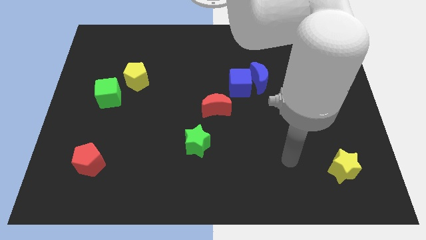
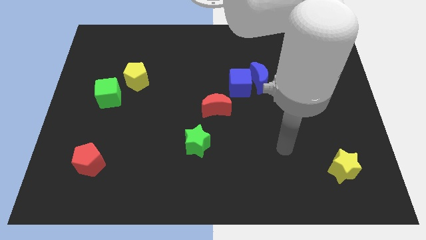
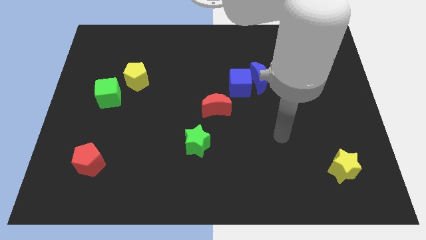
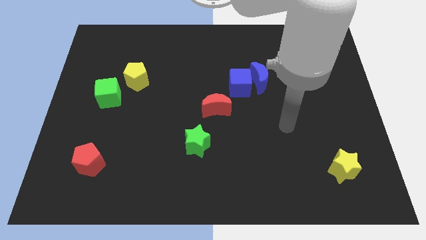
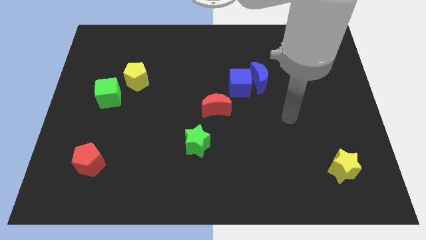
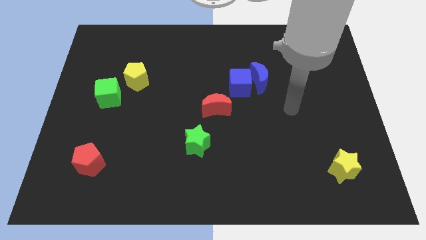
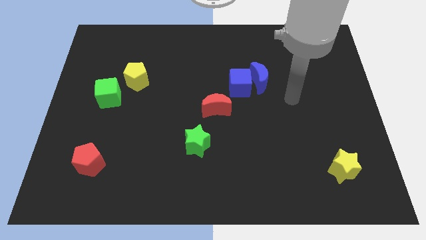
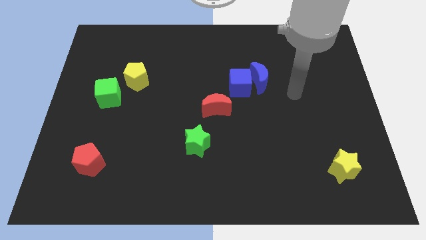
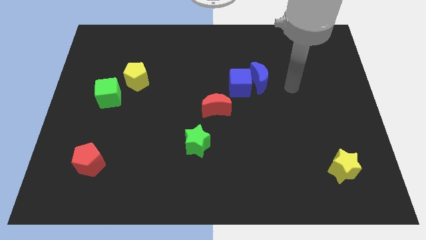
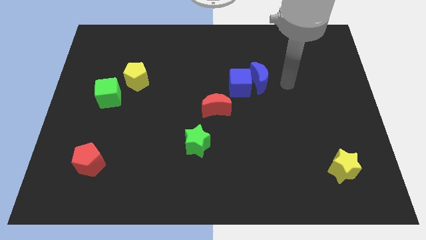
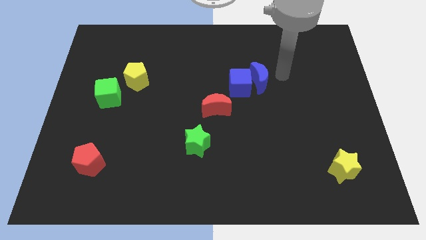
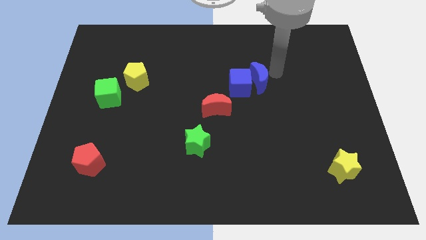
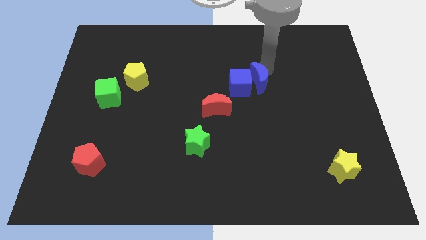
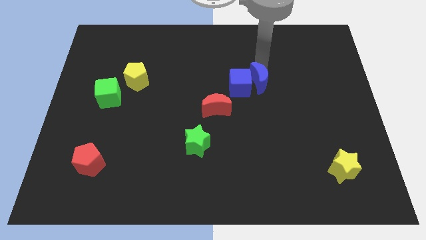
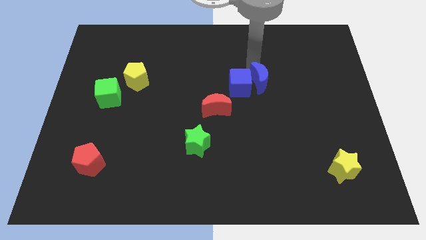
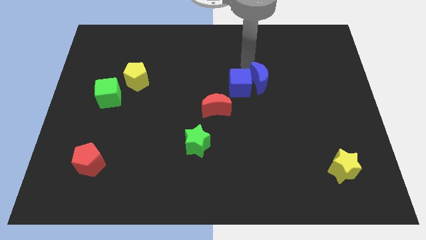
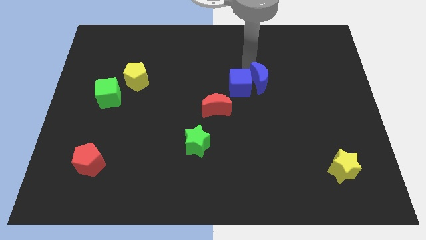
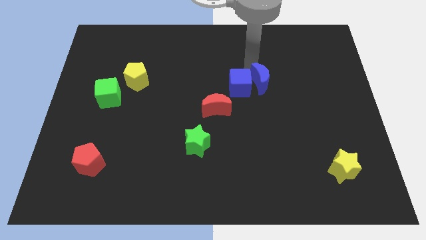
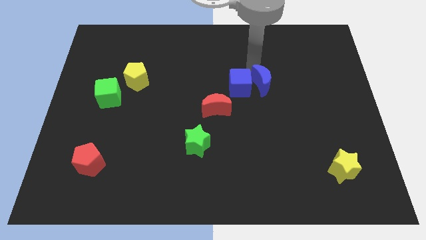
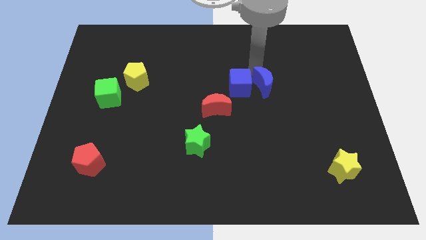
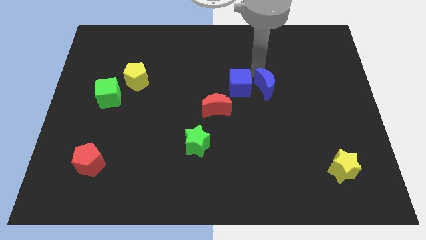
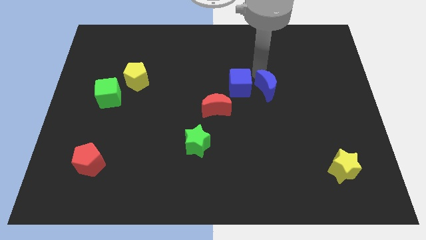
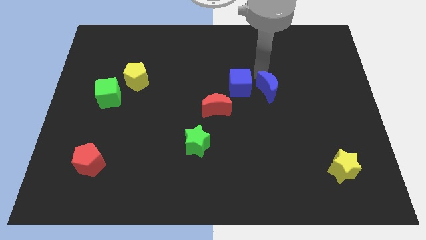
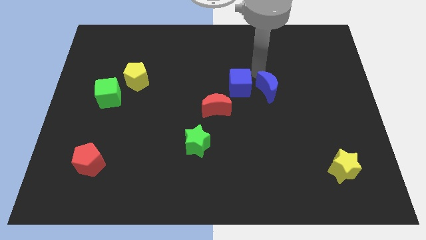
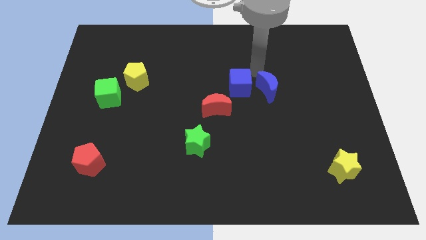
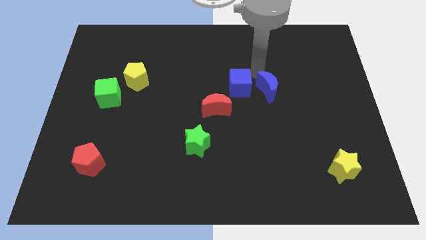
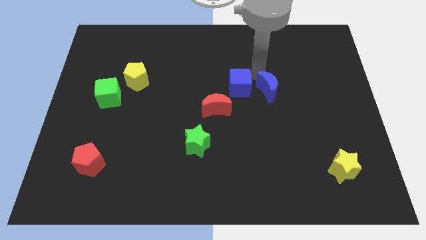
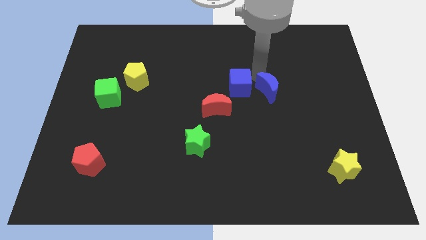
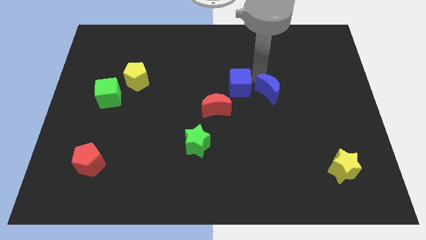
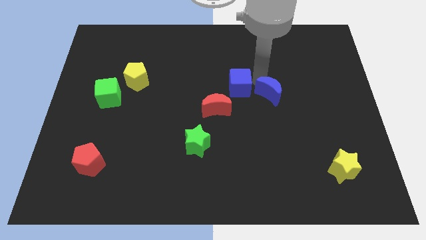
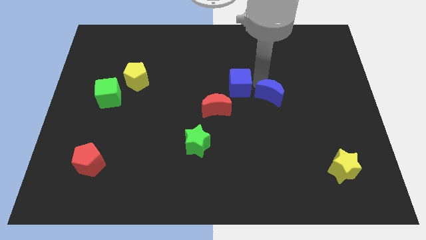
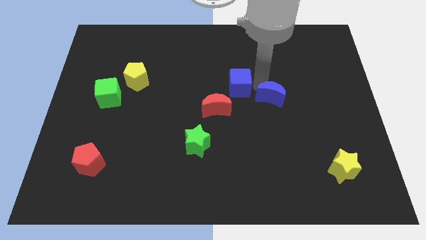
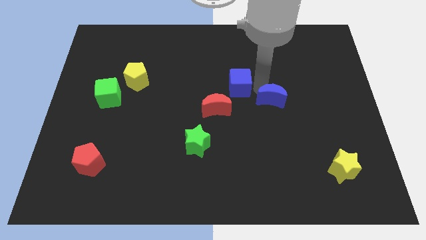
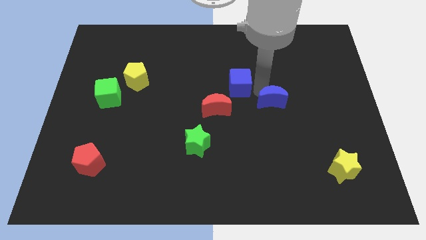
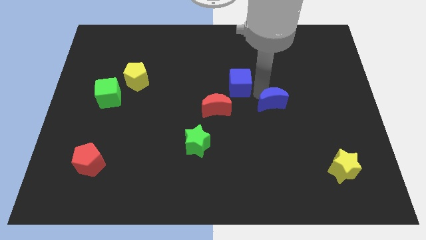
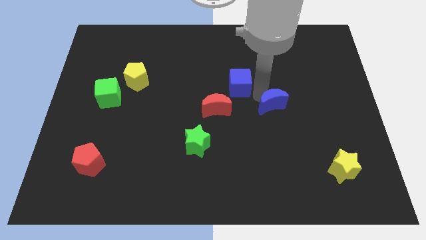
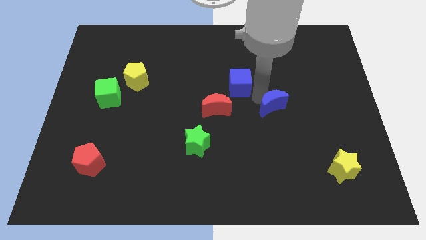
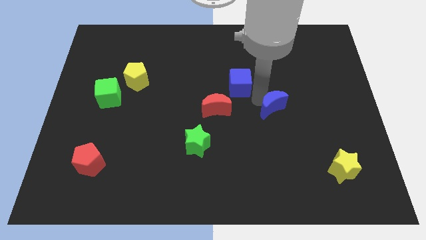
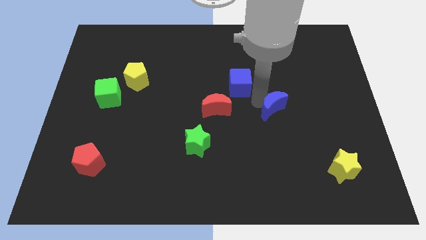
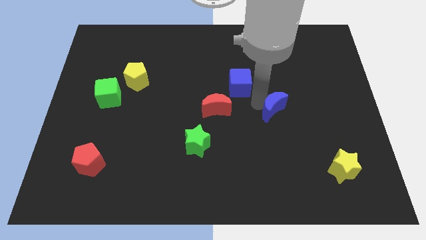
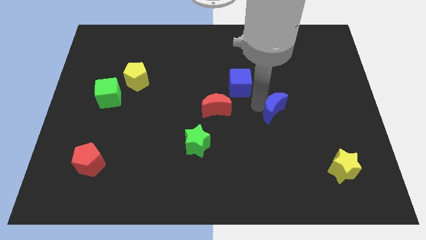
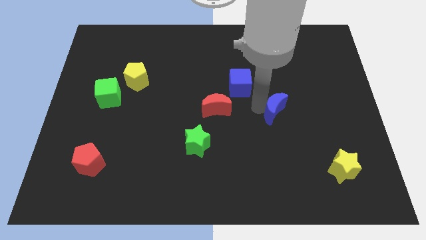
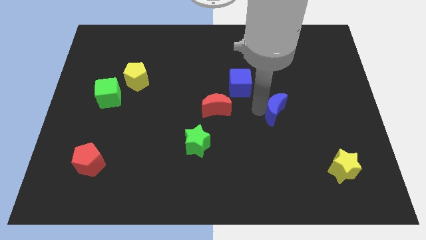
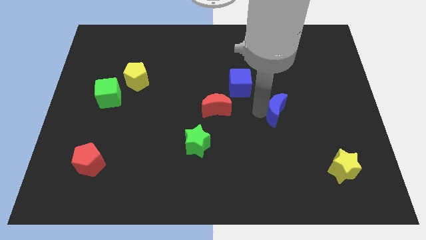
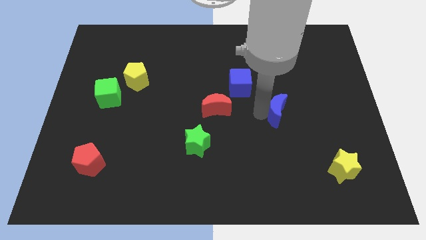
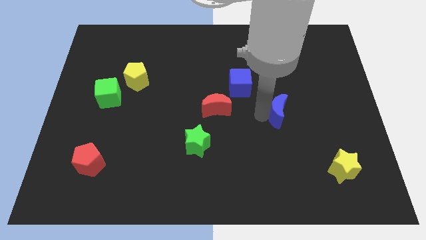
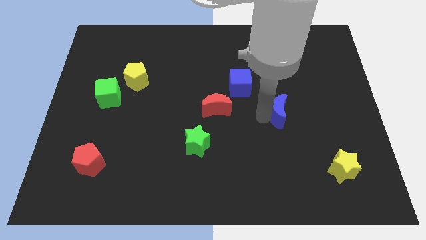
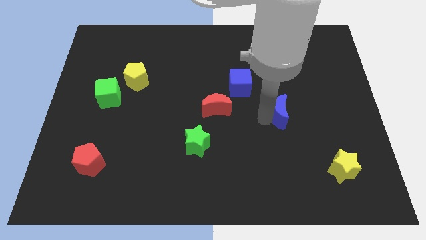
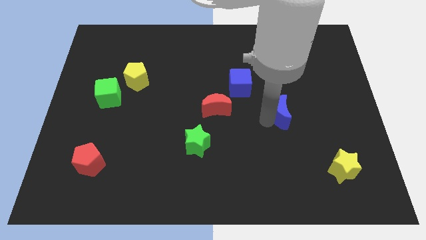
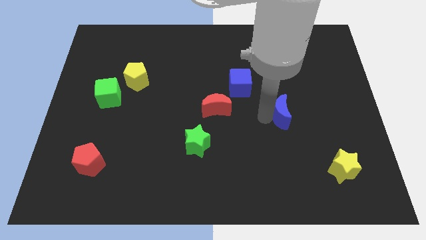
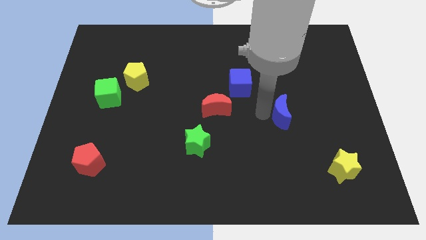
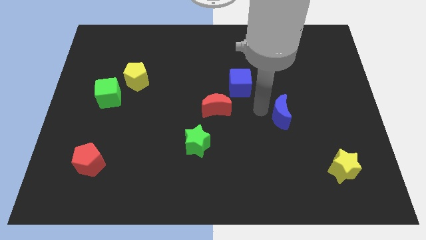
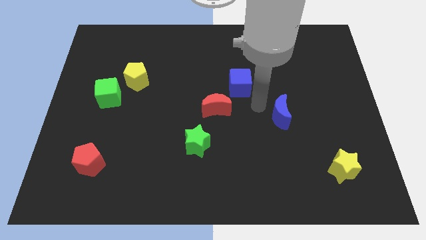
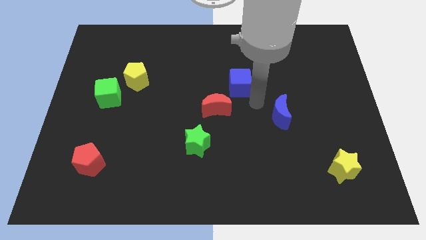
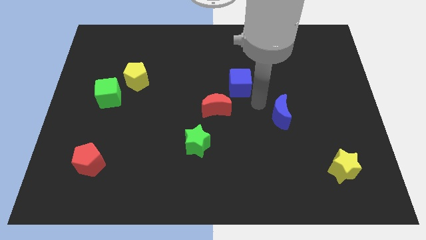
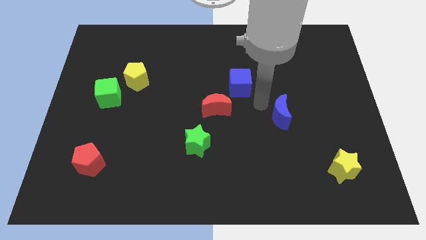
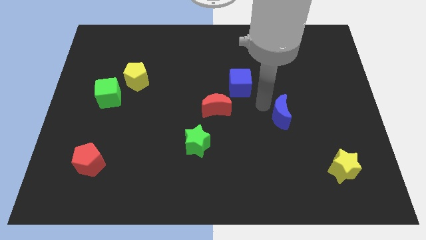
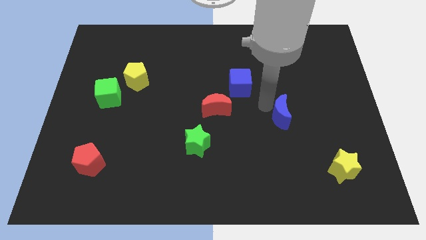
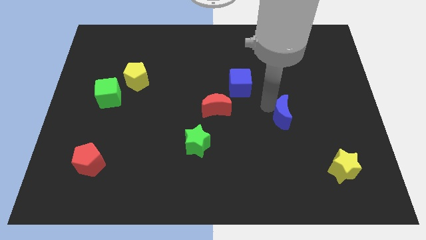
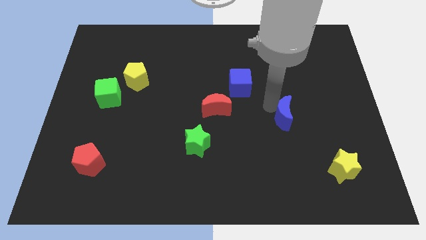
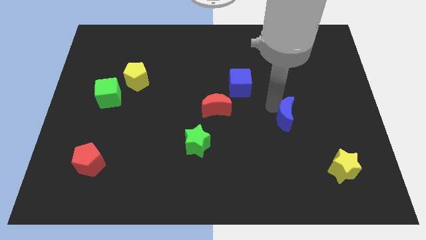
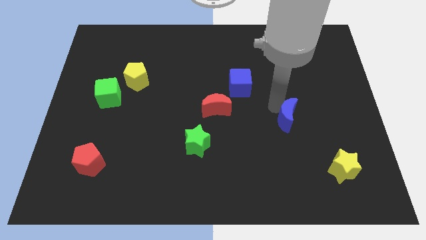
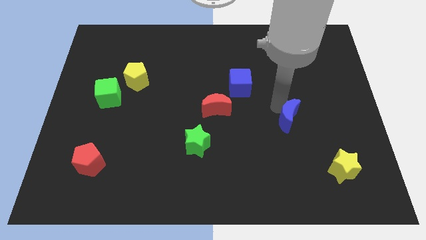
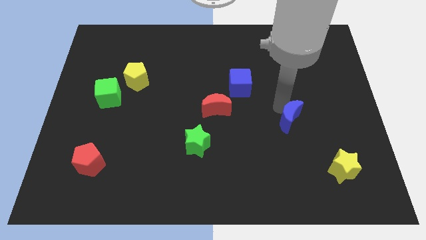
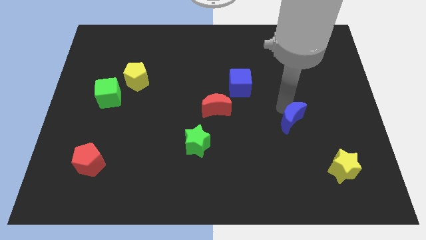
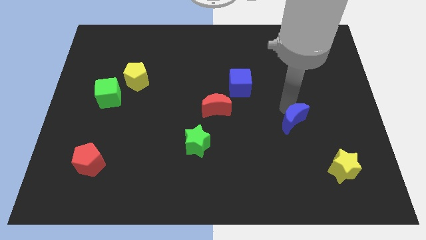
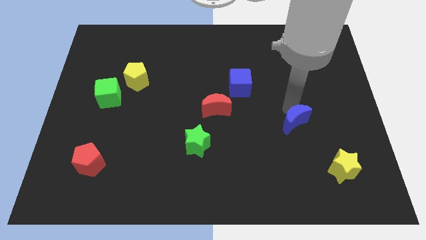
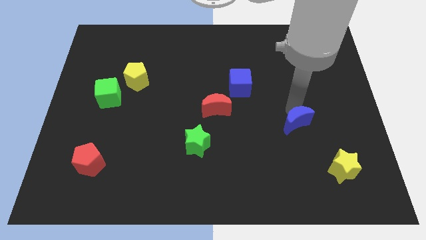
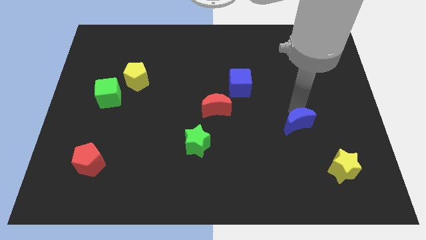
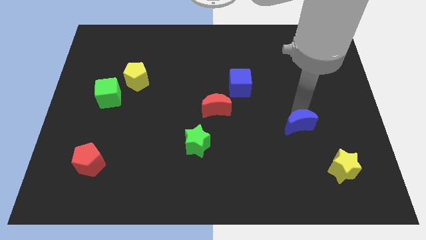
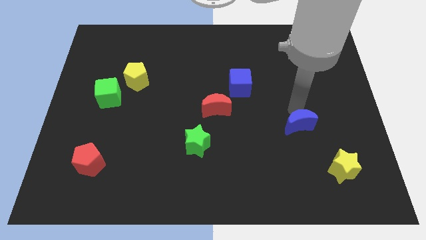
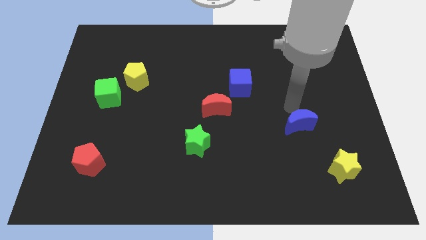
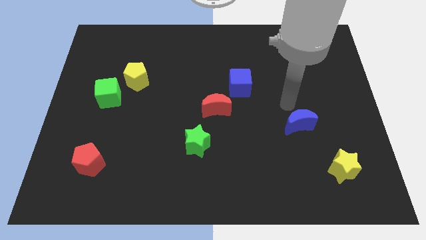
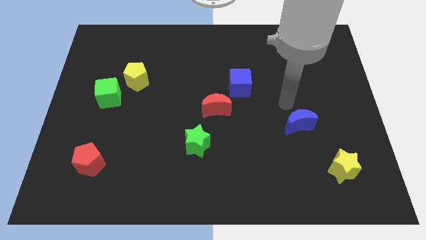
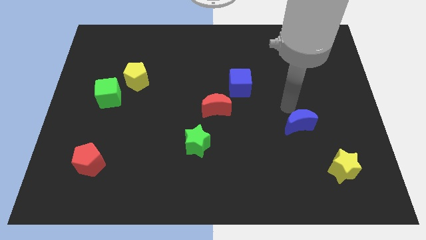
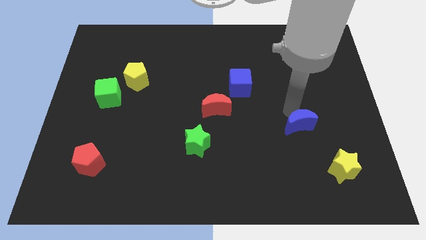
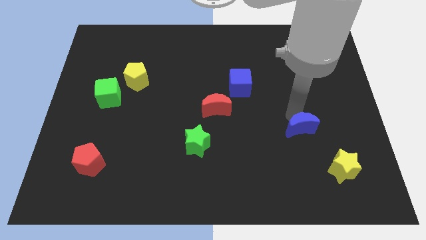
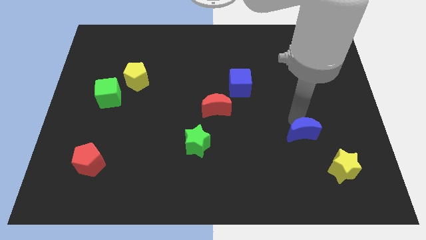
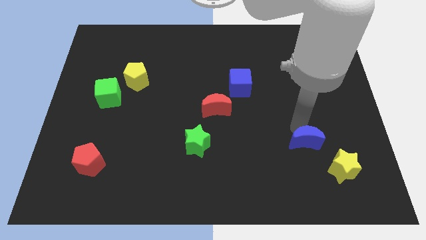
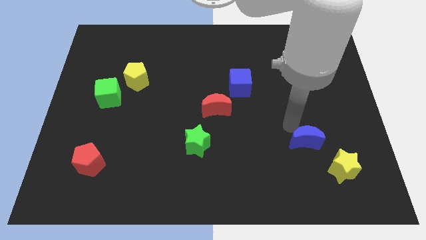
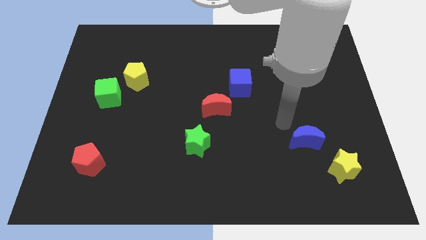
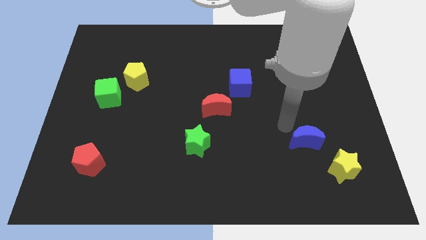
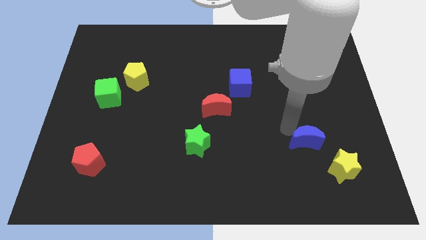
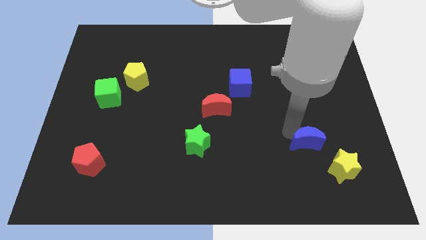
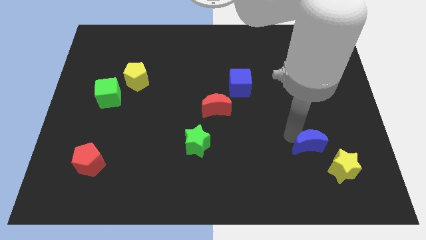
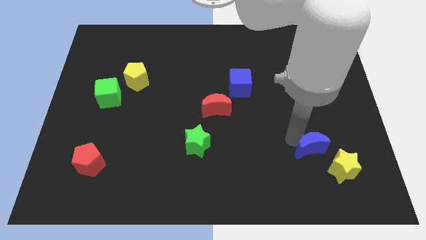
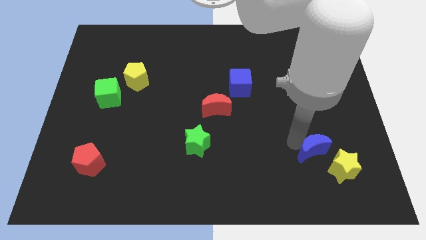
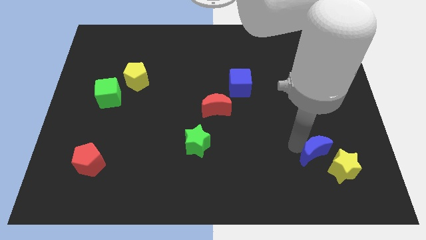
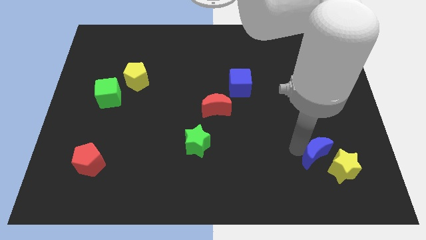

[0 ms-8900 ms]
put the blue moon towards the yellow star
